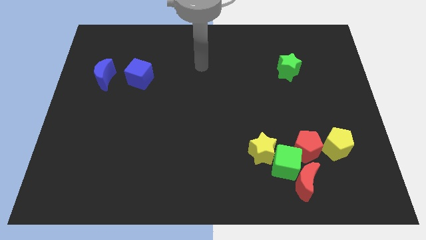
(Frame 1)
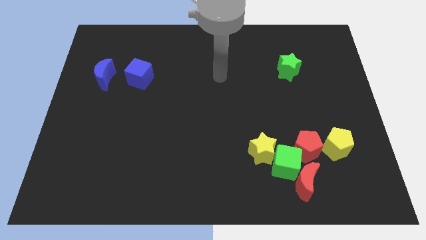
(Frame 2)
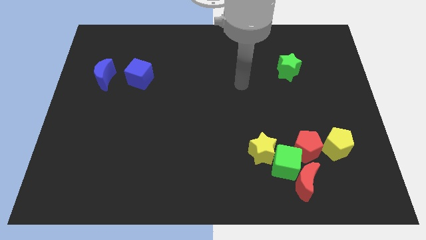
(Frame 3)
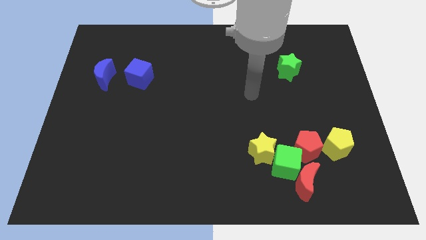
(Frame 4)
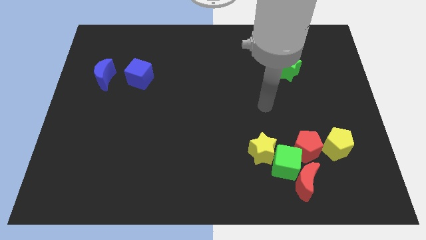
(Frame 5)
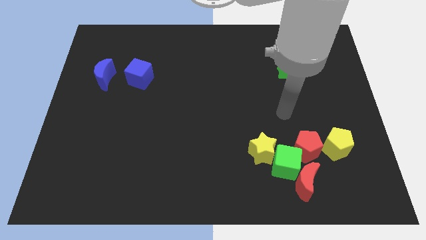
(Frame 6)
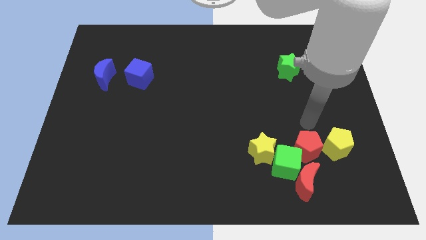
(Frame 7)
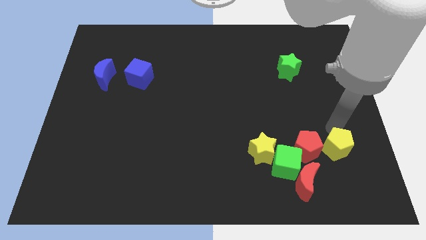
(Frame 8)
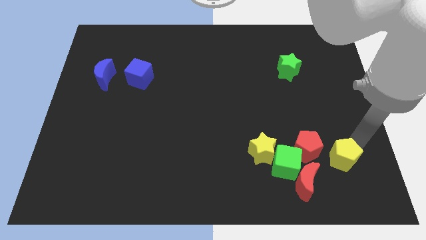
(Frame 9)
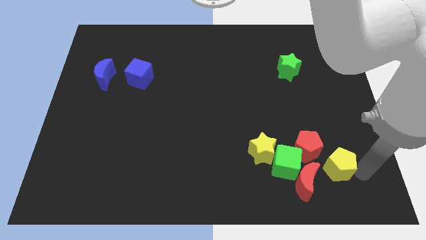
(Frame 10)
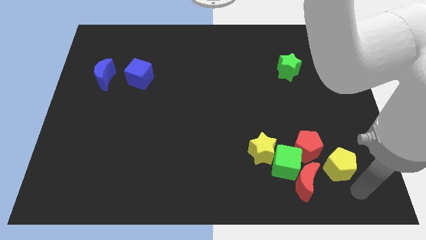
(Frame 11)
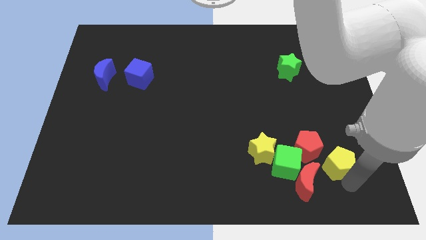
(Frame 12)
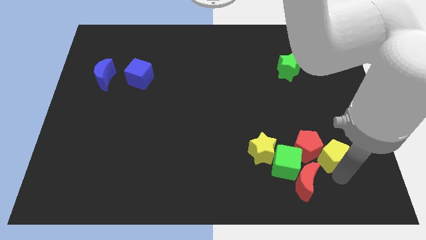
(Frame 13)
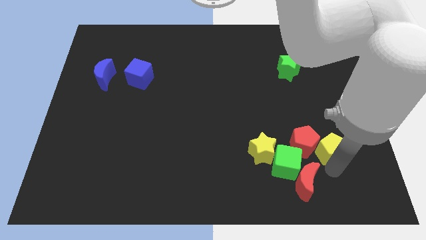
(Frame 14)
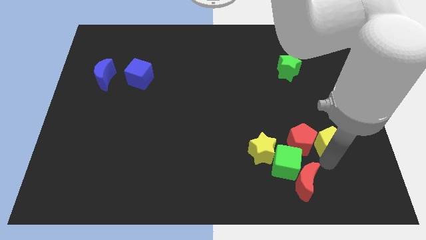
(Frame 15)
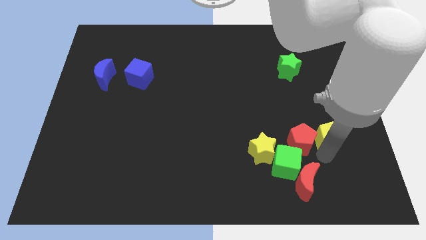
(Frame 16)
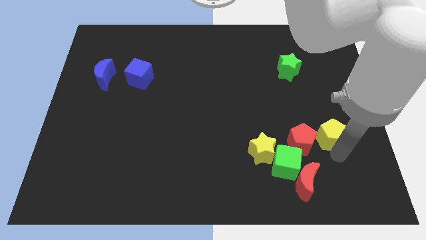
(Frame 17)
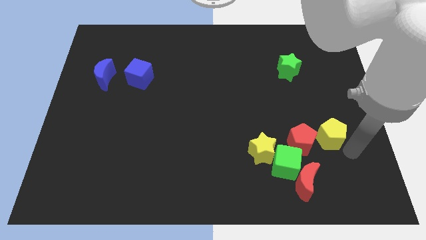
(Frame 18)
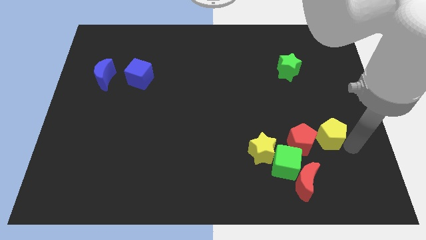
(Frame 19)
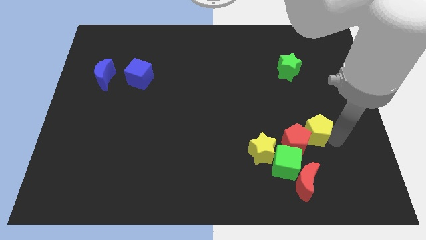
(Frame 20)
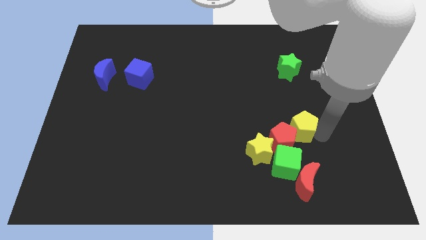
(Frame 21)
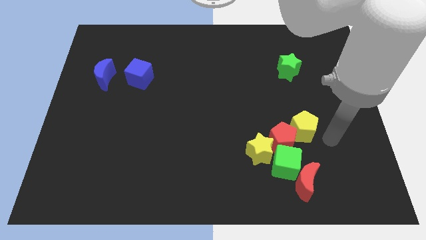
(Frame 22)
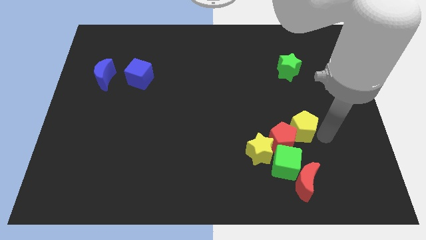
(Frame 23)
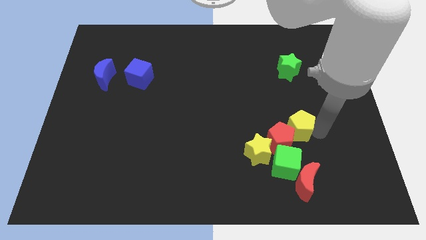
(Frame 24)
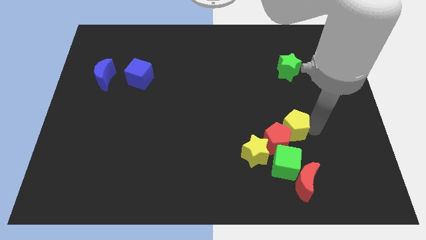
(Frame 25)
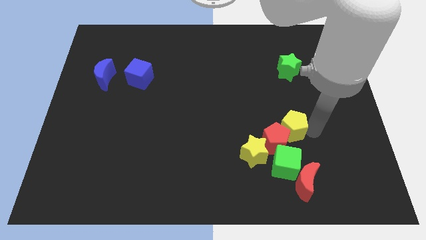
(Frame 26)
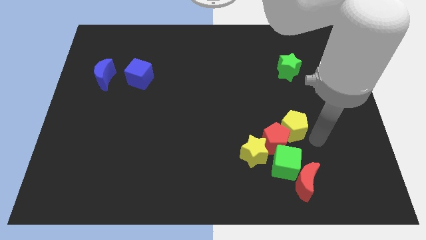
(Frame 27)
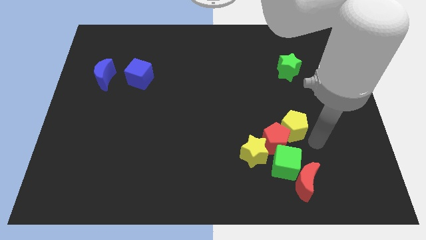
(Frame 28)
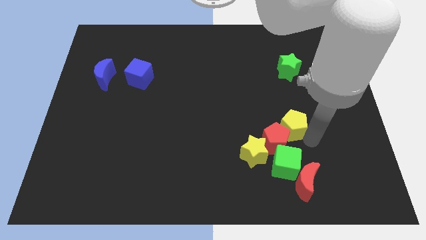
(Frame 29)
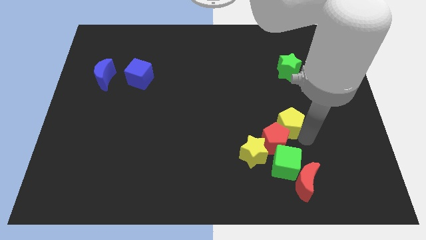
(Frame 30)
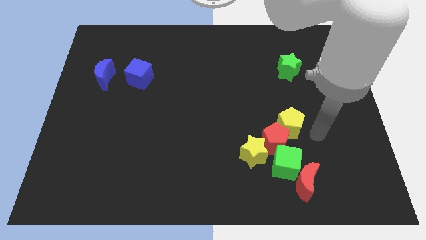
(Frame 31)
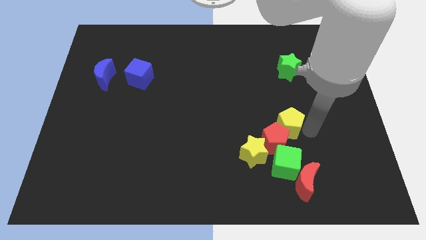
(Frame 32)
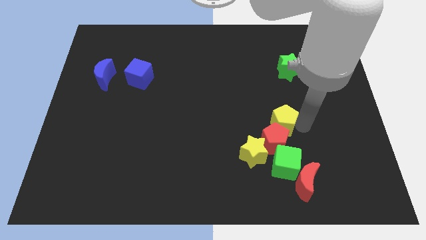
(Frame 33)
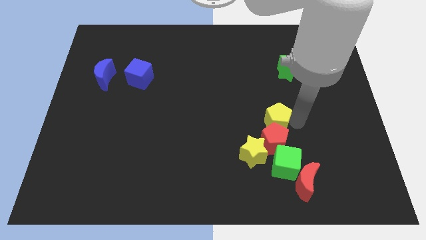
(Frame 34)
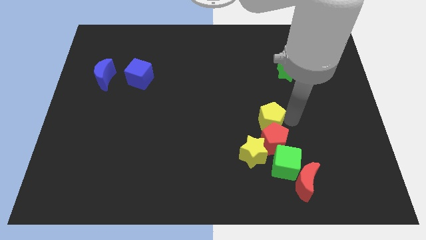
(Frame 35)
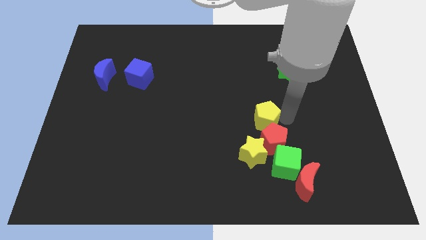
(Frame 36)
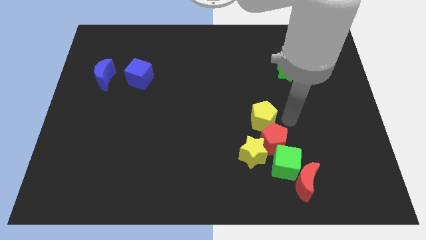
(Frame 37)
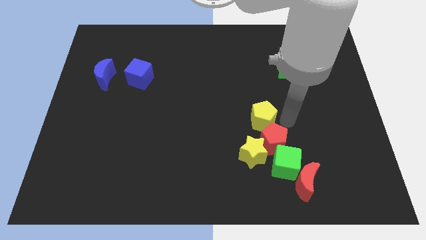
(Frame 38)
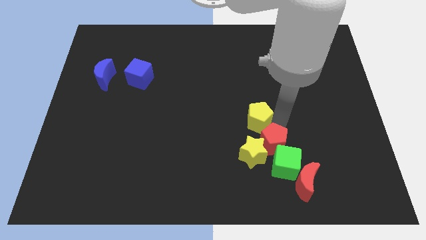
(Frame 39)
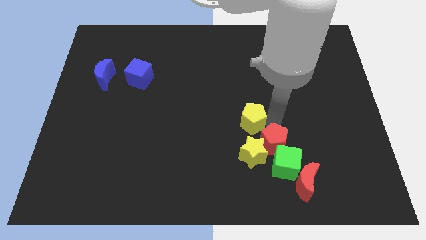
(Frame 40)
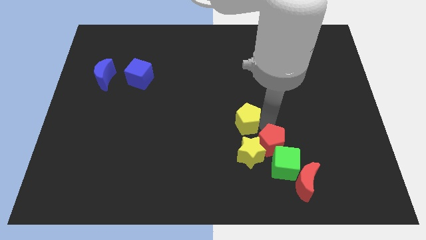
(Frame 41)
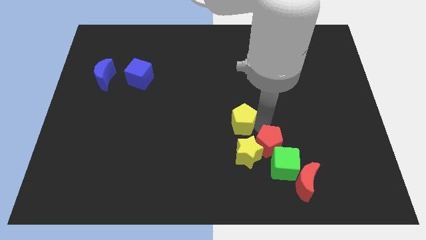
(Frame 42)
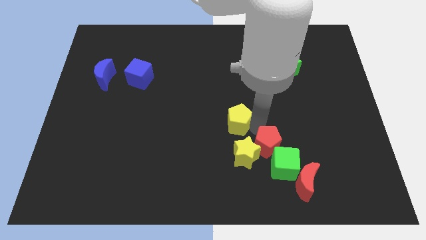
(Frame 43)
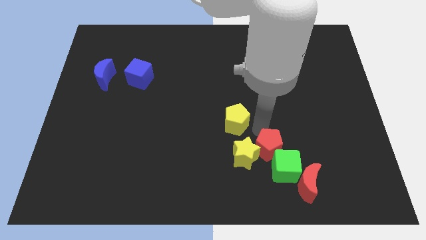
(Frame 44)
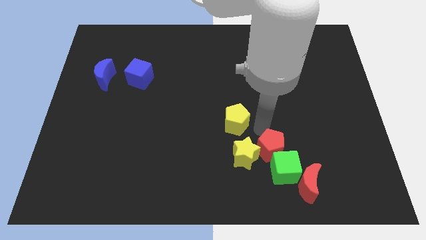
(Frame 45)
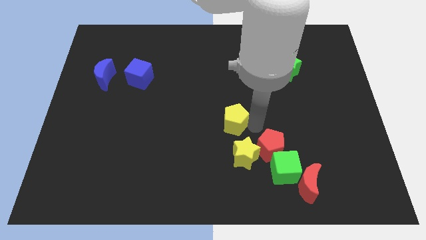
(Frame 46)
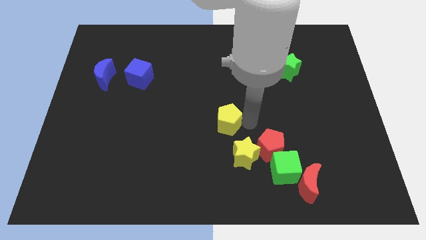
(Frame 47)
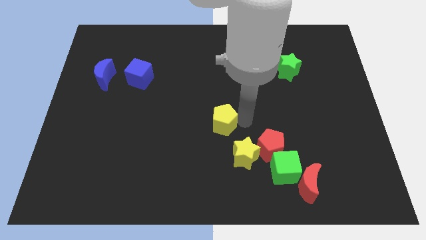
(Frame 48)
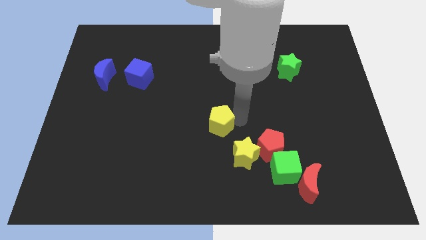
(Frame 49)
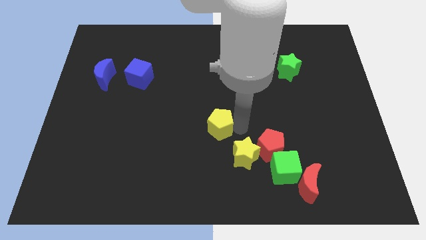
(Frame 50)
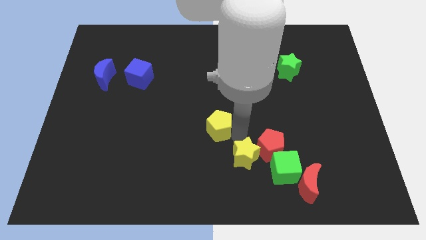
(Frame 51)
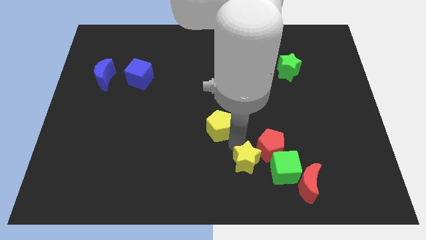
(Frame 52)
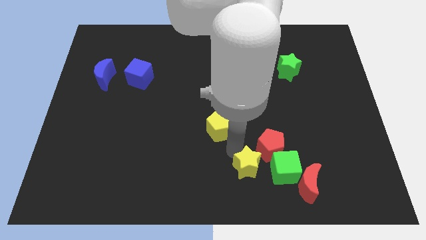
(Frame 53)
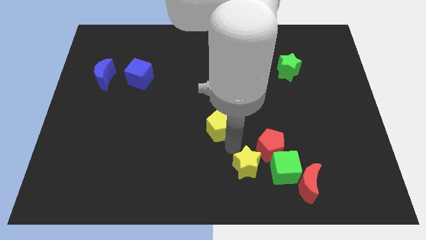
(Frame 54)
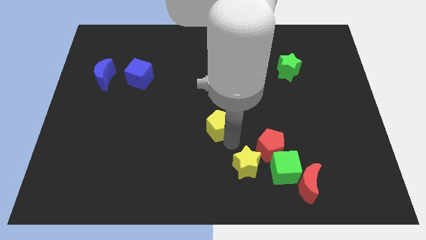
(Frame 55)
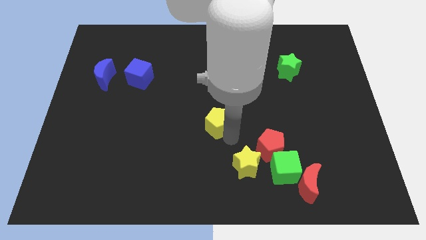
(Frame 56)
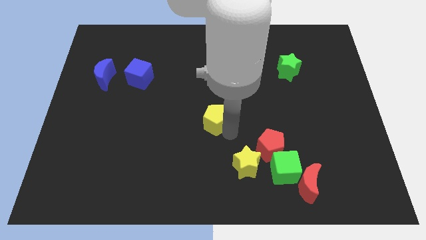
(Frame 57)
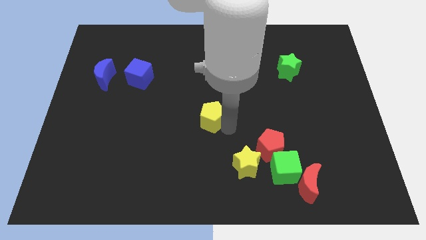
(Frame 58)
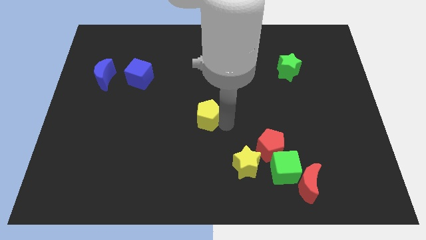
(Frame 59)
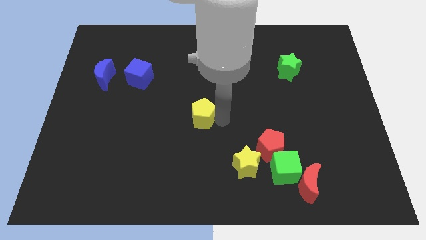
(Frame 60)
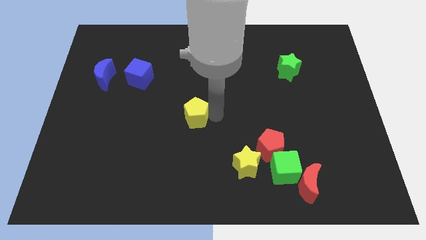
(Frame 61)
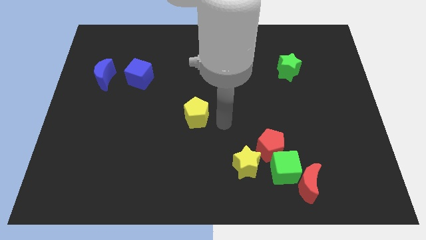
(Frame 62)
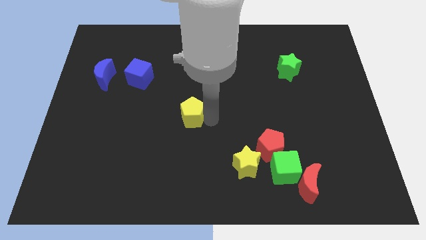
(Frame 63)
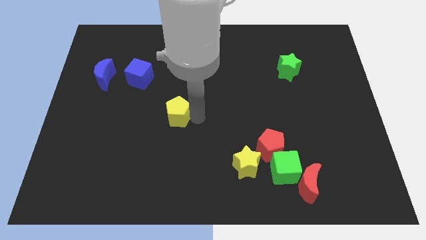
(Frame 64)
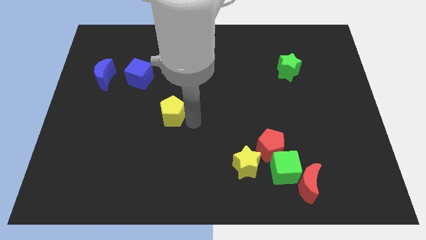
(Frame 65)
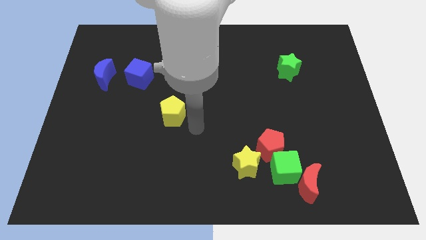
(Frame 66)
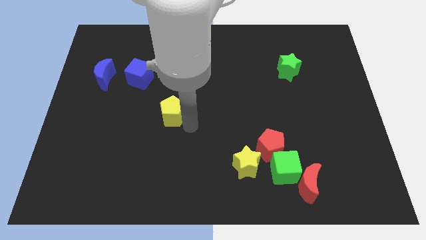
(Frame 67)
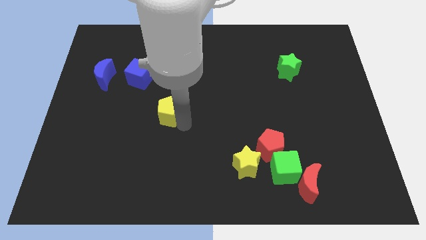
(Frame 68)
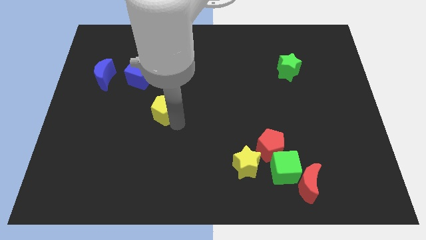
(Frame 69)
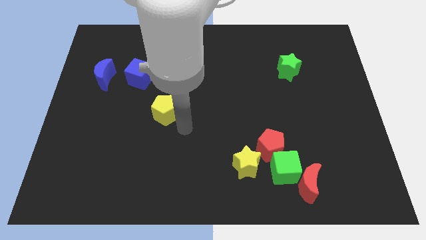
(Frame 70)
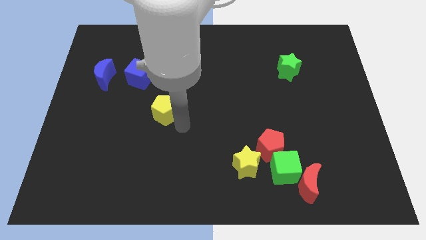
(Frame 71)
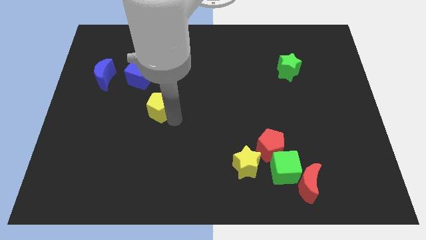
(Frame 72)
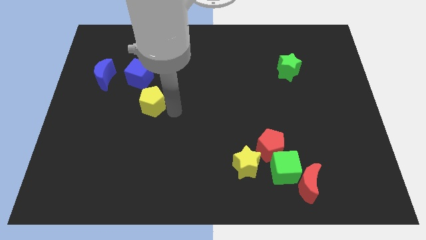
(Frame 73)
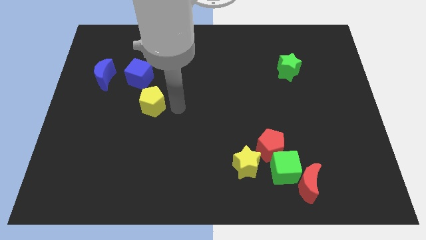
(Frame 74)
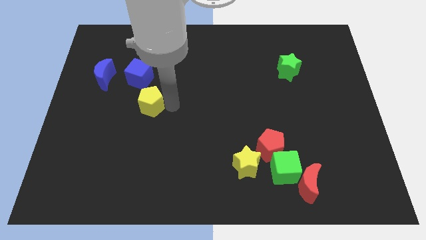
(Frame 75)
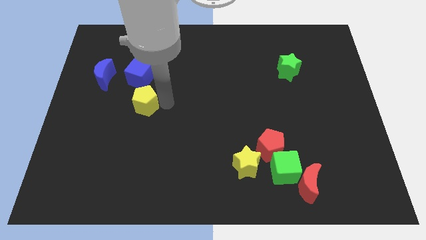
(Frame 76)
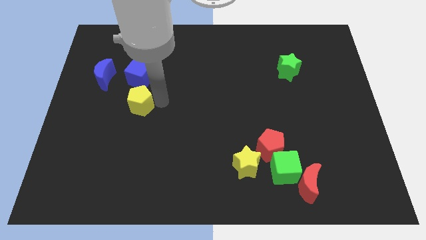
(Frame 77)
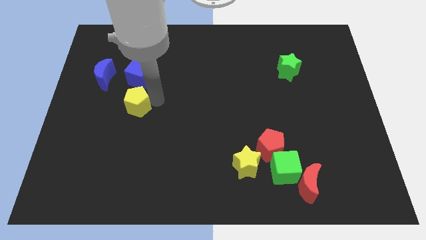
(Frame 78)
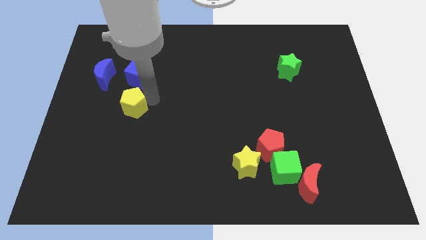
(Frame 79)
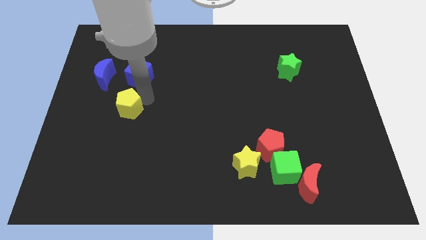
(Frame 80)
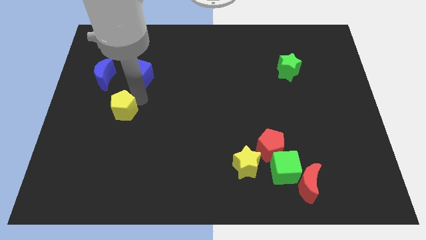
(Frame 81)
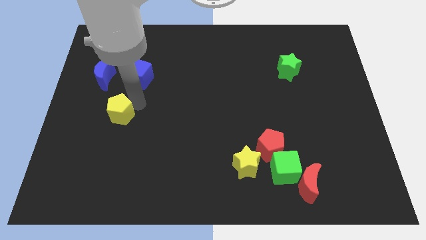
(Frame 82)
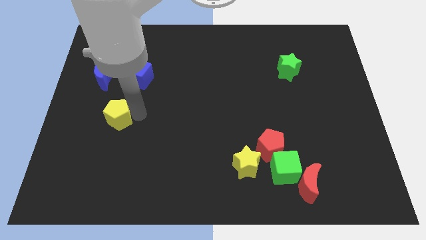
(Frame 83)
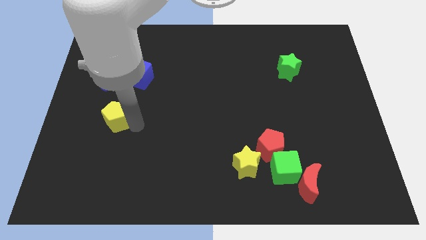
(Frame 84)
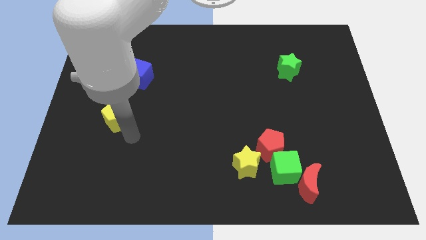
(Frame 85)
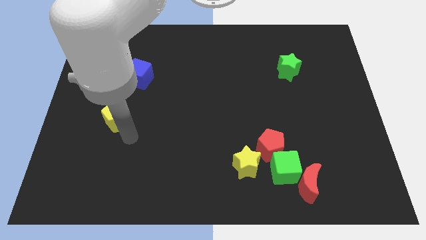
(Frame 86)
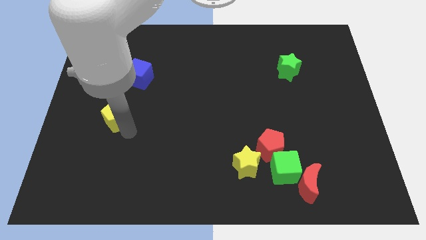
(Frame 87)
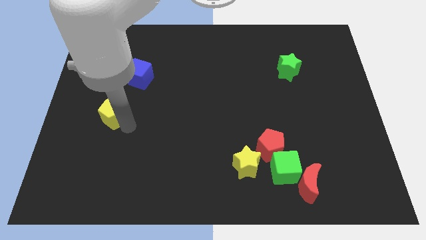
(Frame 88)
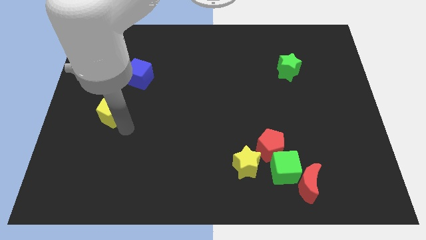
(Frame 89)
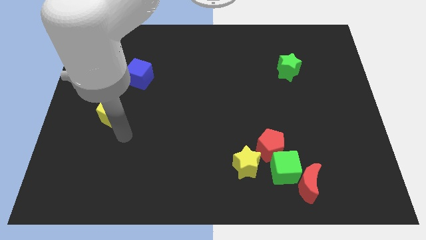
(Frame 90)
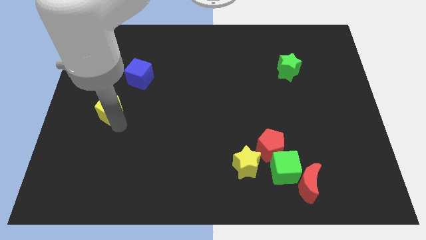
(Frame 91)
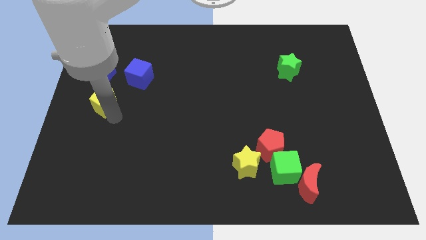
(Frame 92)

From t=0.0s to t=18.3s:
put the yellow pentagon to the center left
